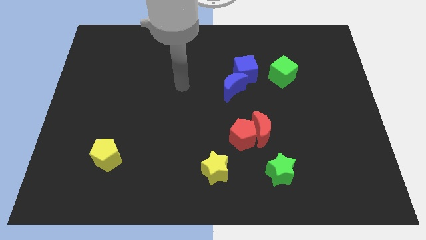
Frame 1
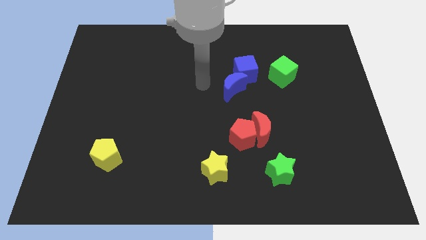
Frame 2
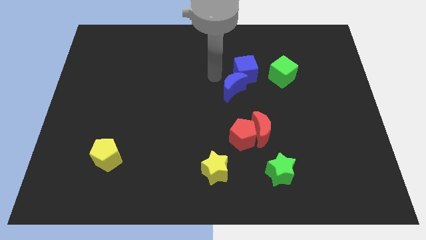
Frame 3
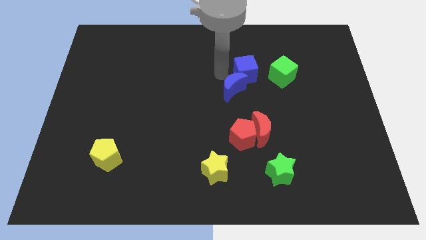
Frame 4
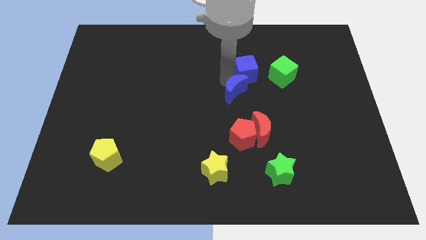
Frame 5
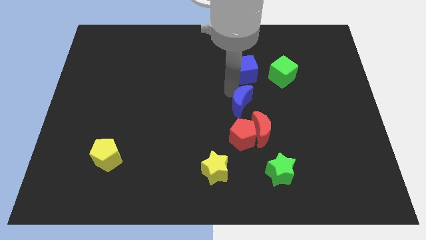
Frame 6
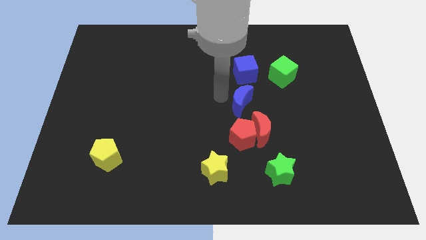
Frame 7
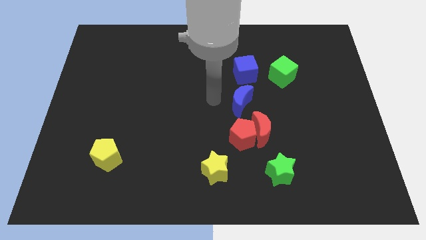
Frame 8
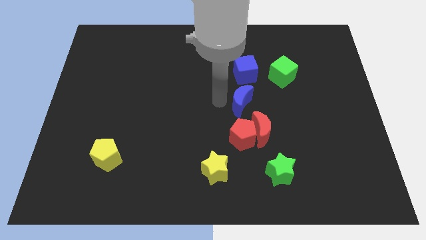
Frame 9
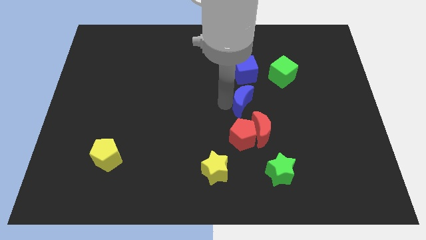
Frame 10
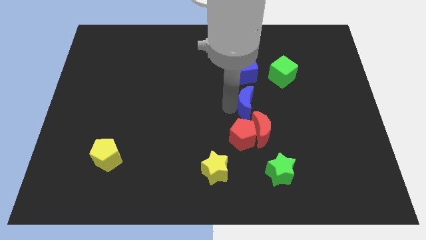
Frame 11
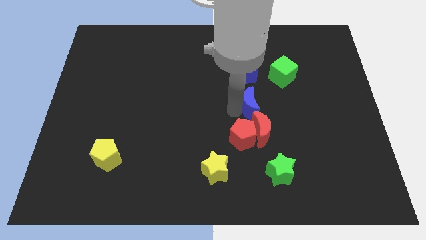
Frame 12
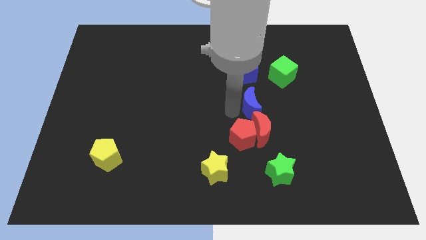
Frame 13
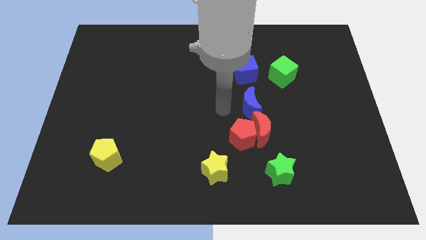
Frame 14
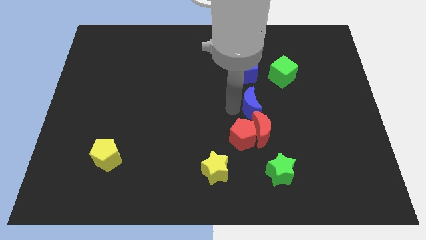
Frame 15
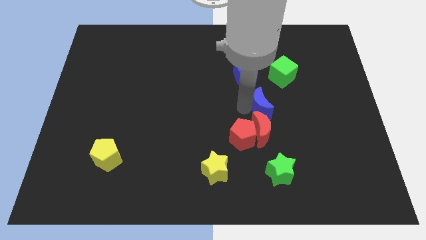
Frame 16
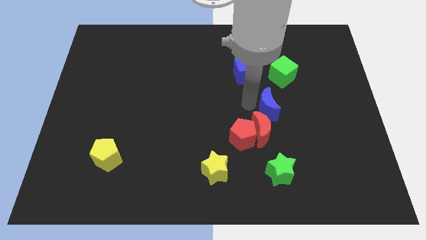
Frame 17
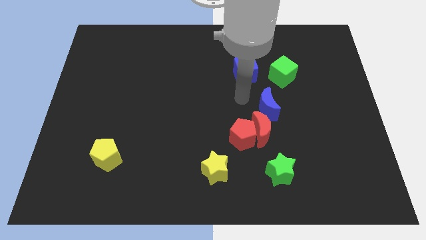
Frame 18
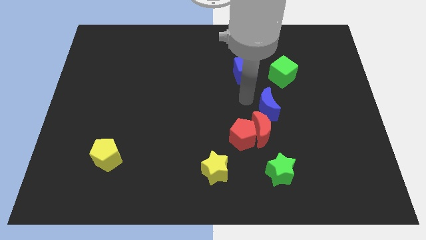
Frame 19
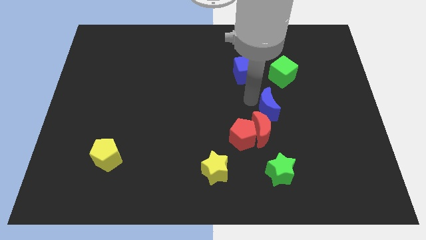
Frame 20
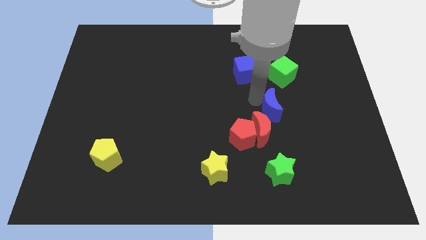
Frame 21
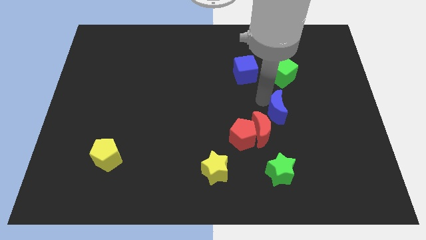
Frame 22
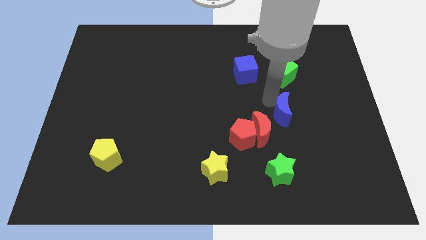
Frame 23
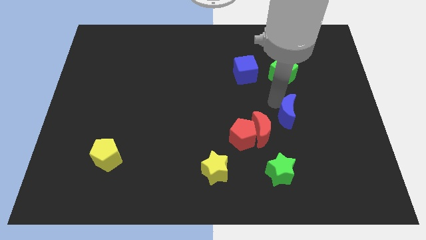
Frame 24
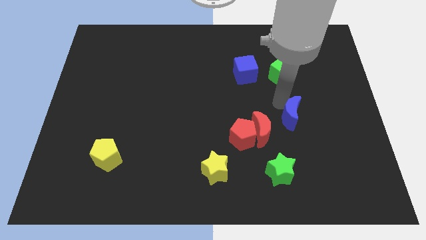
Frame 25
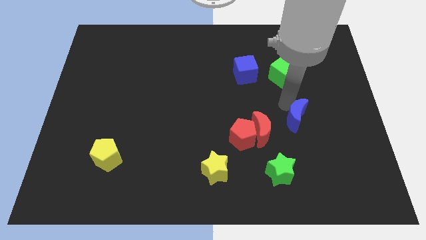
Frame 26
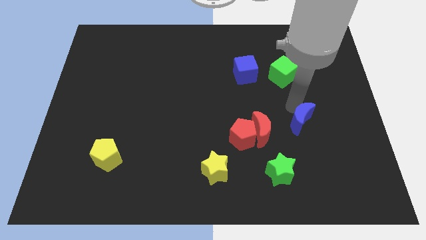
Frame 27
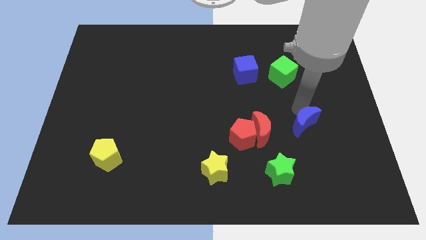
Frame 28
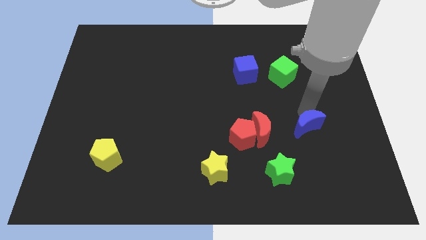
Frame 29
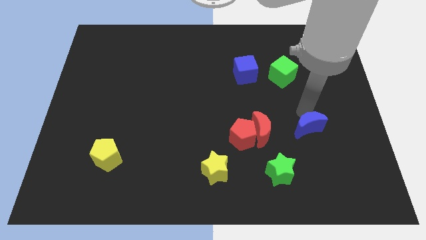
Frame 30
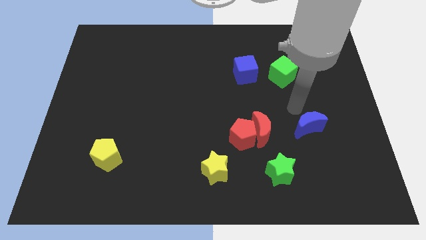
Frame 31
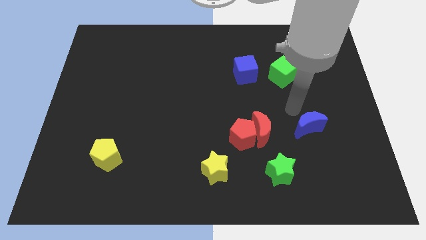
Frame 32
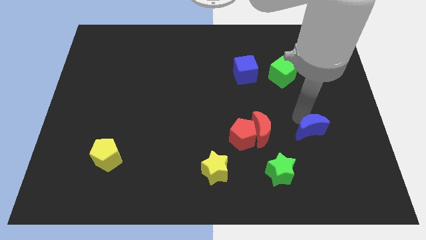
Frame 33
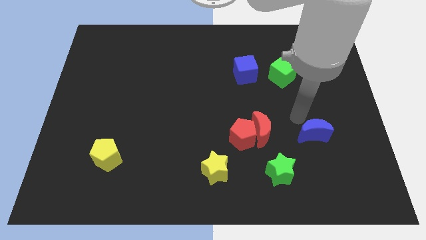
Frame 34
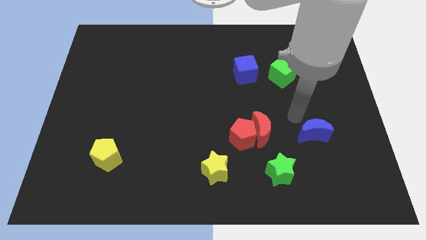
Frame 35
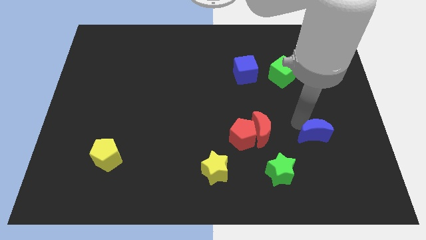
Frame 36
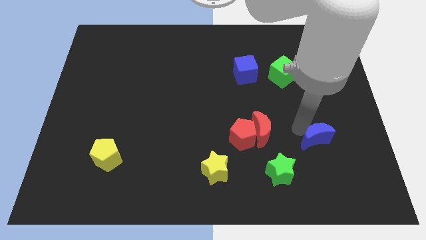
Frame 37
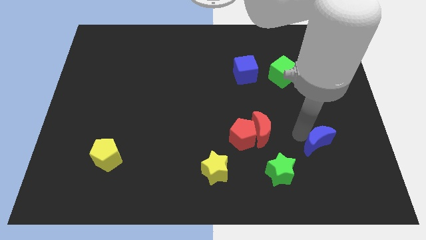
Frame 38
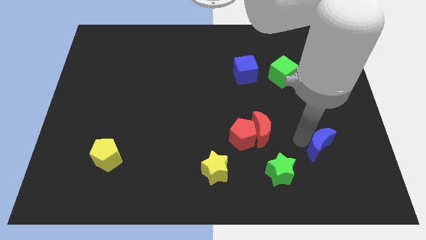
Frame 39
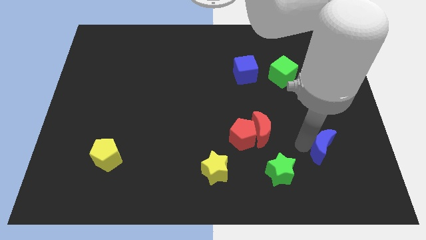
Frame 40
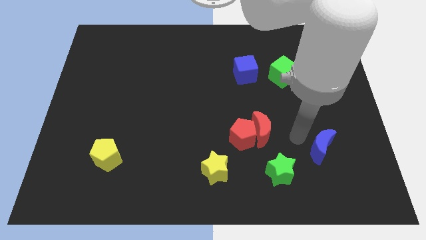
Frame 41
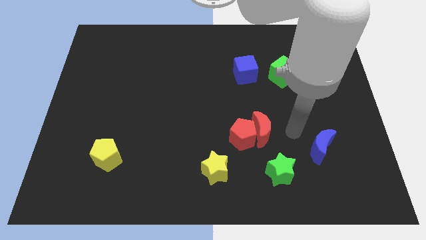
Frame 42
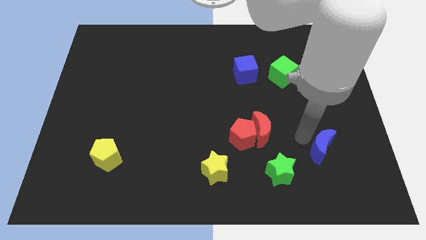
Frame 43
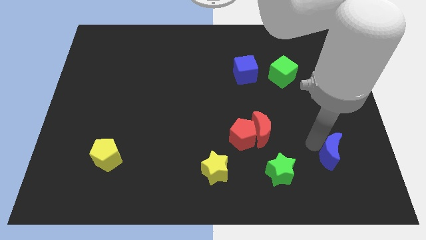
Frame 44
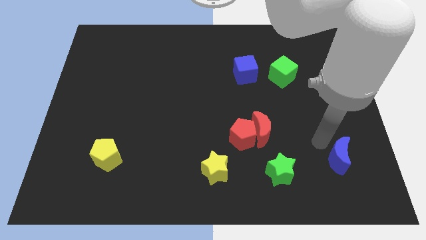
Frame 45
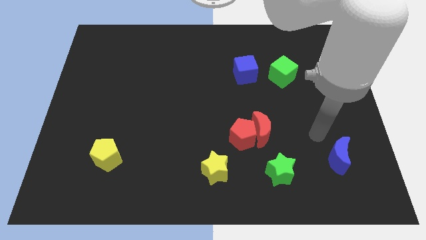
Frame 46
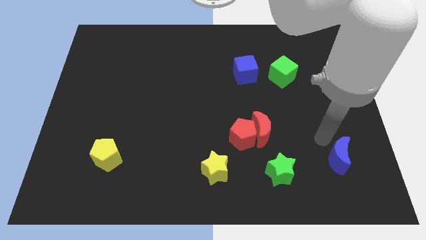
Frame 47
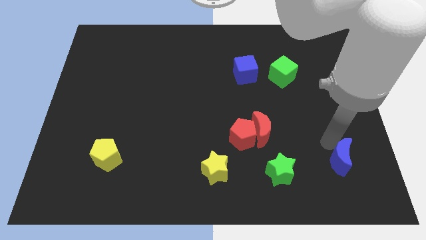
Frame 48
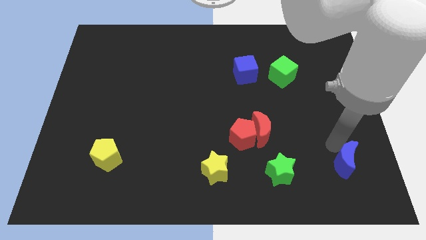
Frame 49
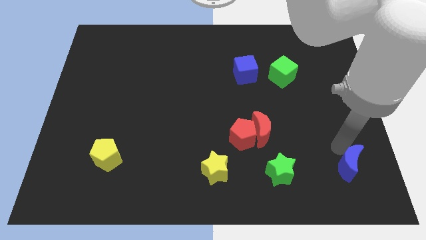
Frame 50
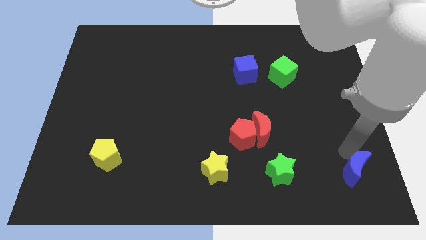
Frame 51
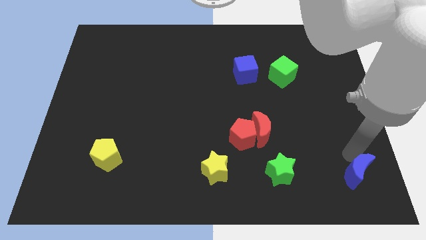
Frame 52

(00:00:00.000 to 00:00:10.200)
slide the blue moon to the lower right corner
